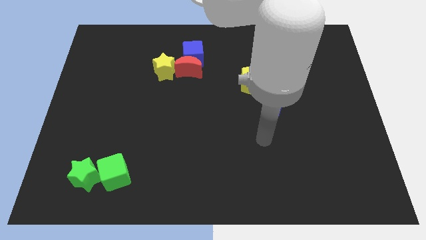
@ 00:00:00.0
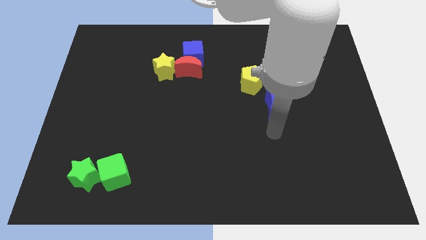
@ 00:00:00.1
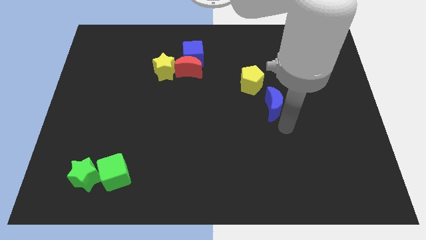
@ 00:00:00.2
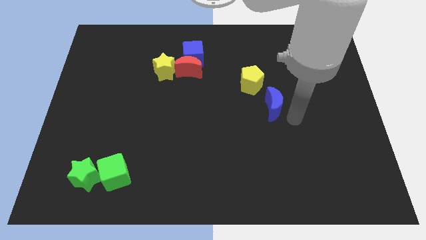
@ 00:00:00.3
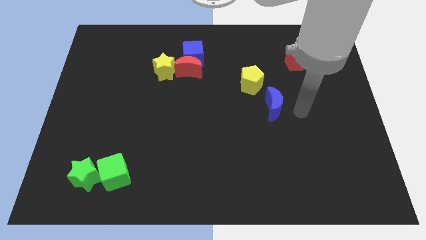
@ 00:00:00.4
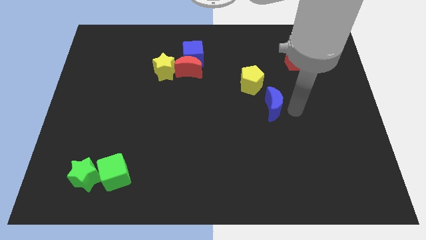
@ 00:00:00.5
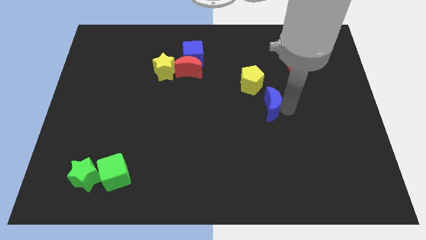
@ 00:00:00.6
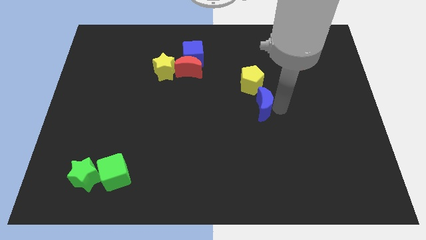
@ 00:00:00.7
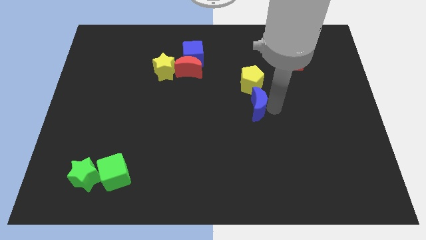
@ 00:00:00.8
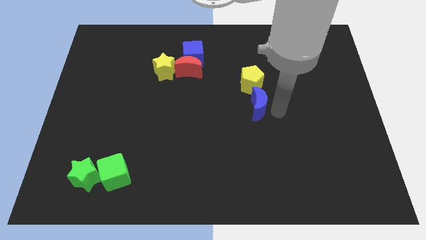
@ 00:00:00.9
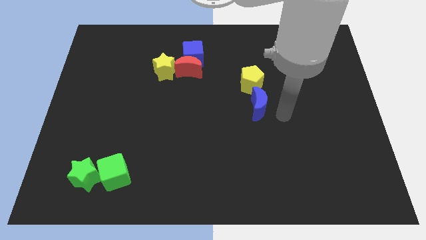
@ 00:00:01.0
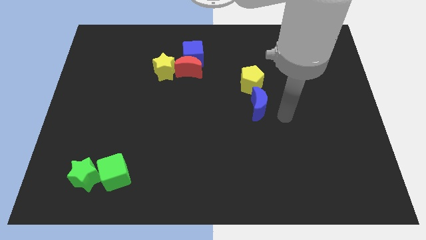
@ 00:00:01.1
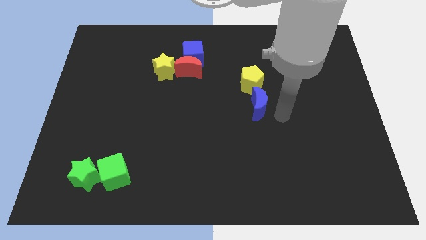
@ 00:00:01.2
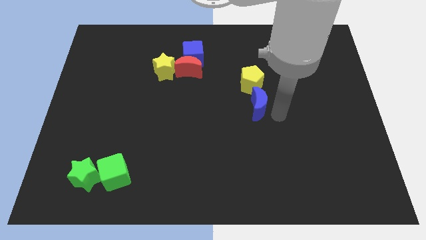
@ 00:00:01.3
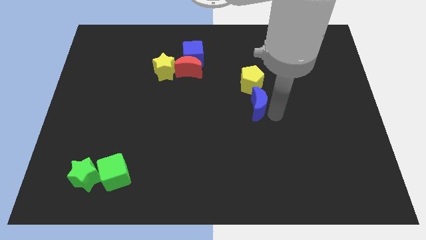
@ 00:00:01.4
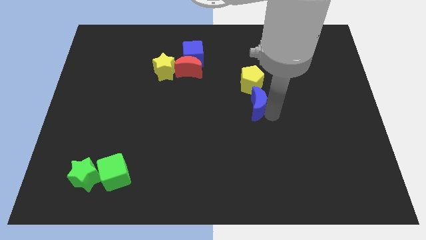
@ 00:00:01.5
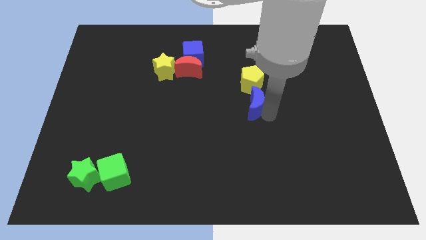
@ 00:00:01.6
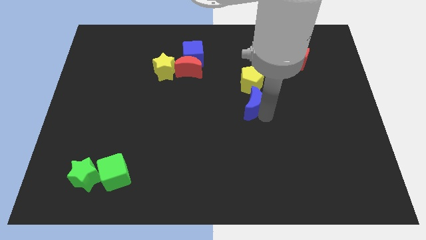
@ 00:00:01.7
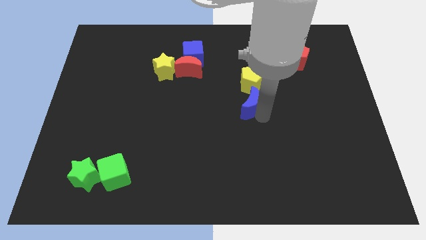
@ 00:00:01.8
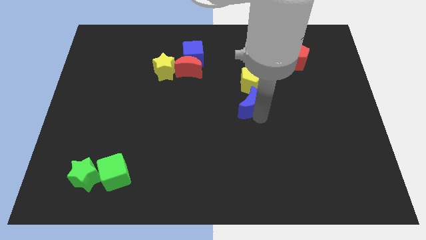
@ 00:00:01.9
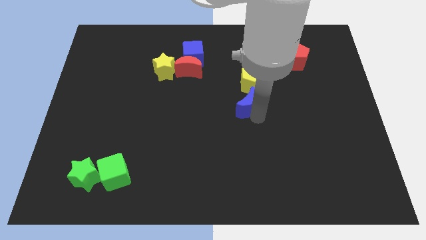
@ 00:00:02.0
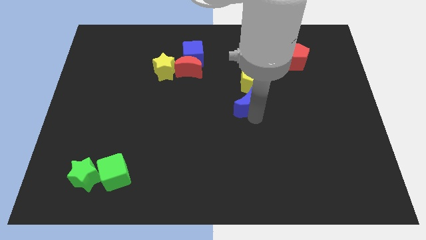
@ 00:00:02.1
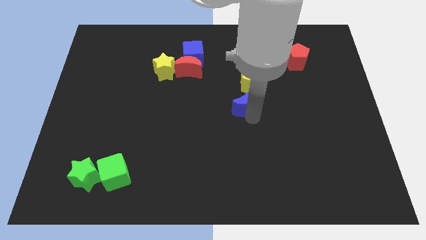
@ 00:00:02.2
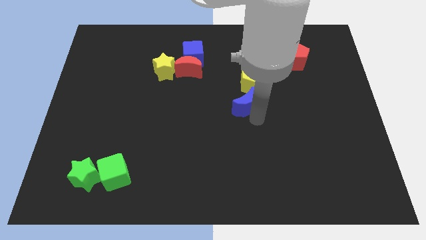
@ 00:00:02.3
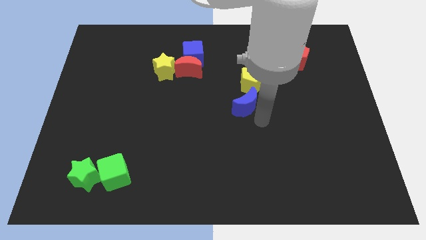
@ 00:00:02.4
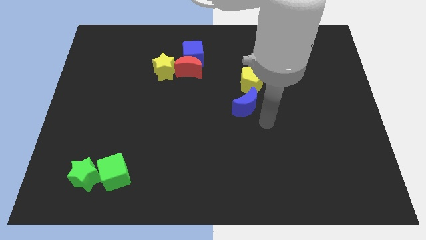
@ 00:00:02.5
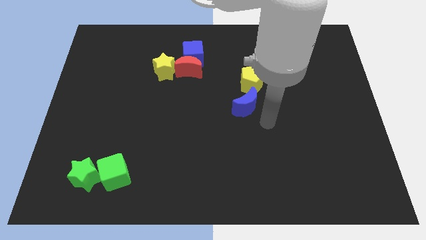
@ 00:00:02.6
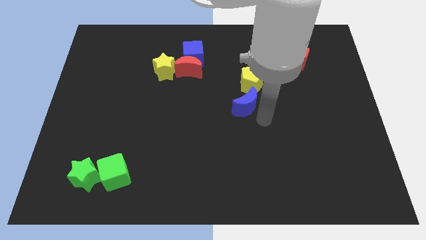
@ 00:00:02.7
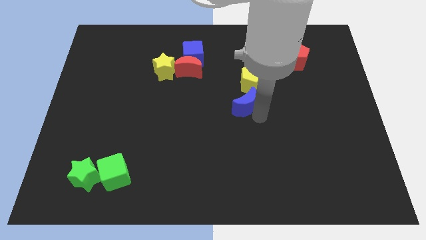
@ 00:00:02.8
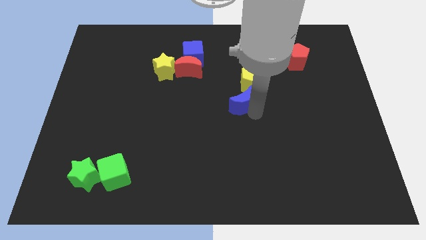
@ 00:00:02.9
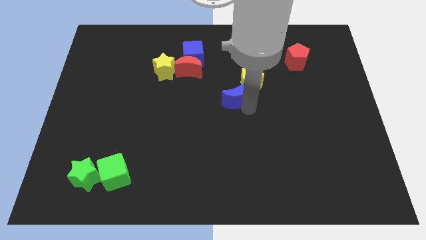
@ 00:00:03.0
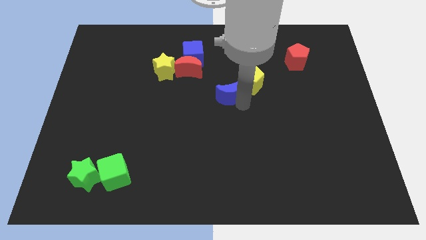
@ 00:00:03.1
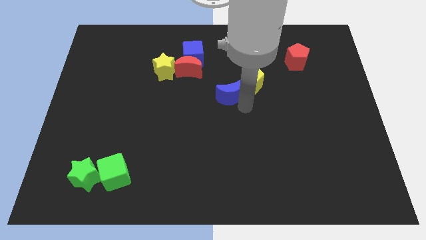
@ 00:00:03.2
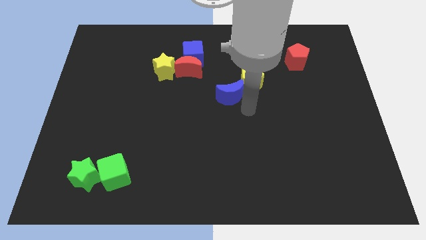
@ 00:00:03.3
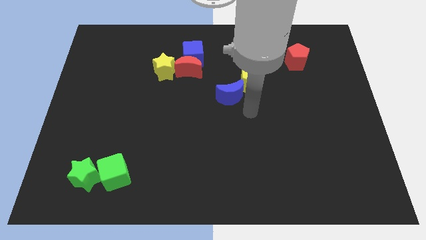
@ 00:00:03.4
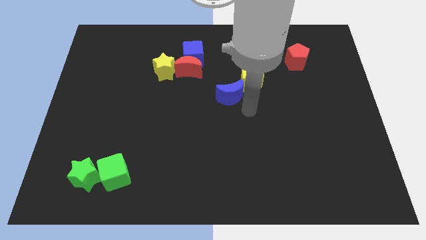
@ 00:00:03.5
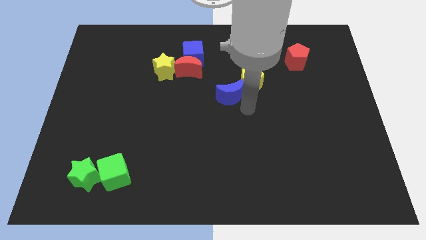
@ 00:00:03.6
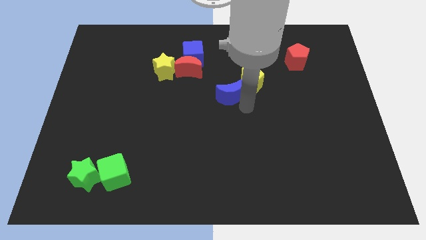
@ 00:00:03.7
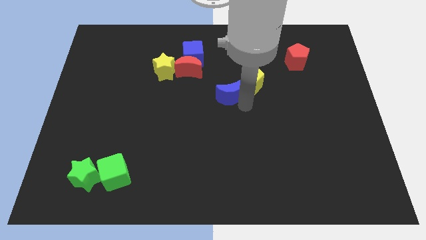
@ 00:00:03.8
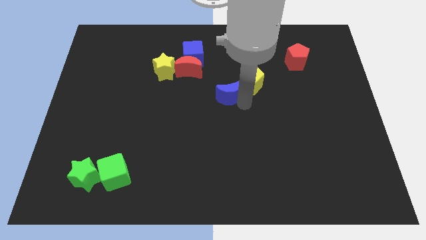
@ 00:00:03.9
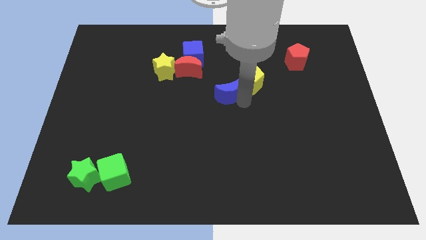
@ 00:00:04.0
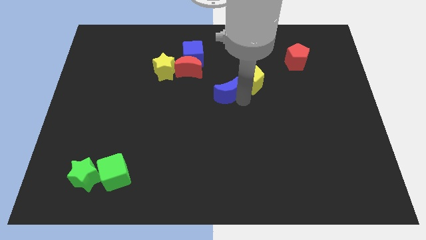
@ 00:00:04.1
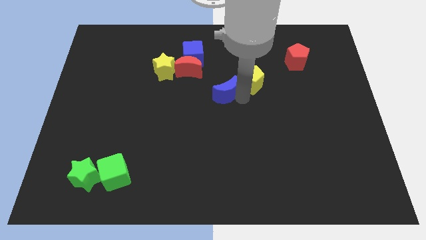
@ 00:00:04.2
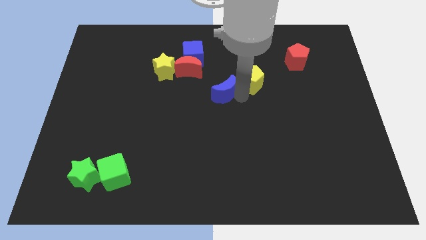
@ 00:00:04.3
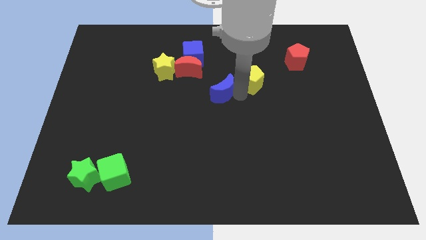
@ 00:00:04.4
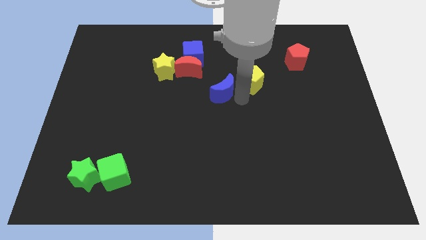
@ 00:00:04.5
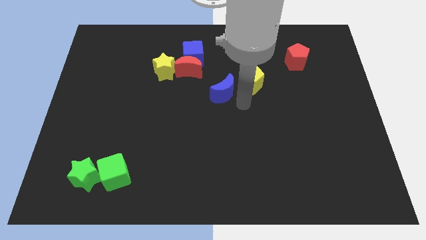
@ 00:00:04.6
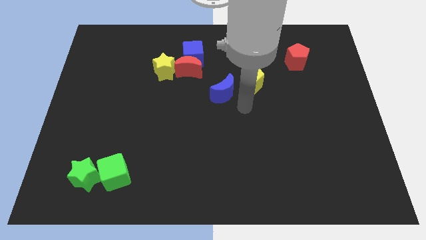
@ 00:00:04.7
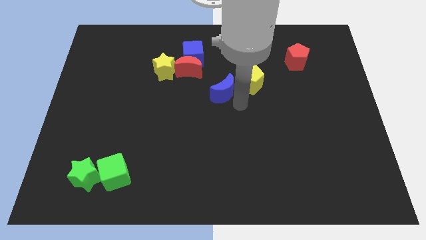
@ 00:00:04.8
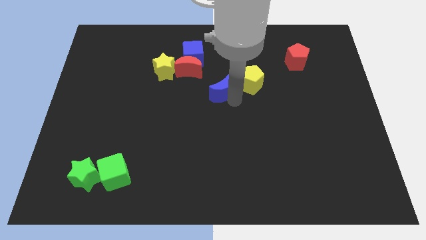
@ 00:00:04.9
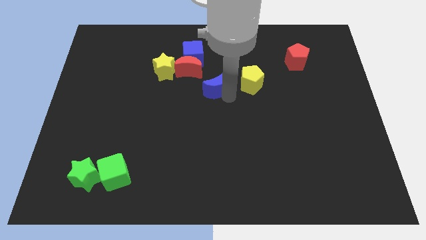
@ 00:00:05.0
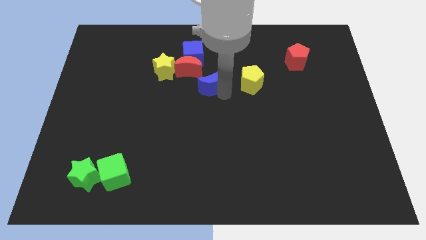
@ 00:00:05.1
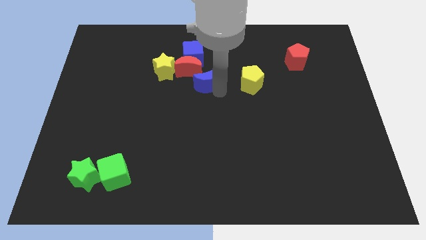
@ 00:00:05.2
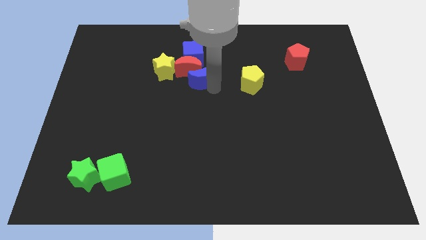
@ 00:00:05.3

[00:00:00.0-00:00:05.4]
put the blue moon close to the red moon

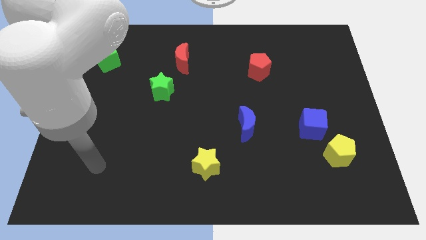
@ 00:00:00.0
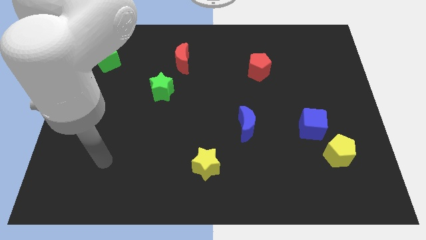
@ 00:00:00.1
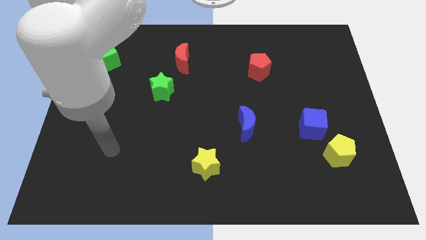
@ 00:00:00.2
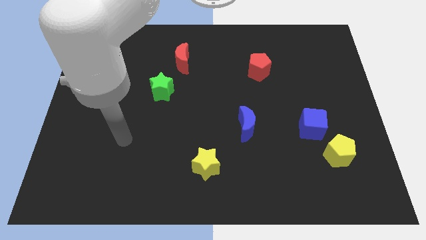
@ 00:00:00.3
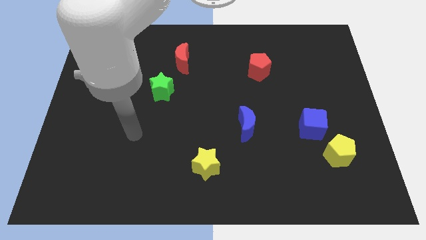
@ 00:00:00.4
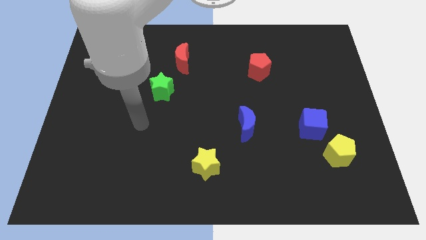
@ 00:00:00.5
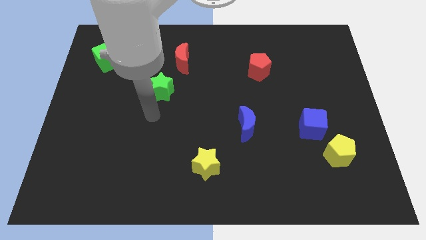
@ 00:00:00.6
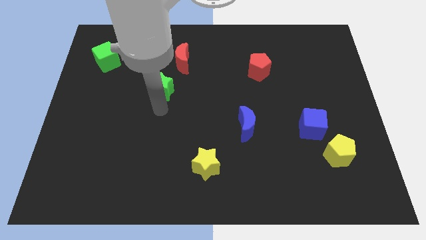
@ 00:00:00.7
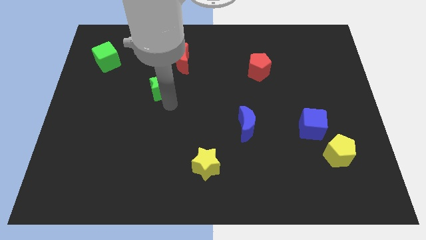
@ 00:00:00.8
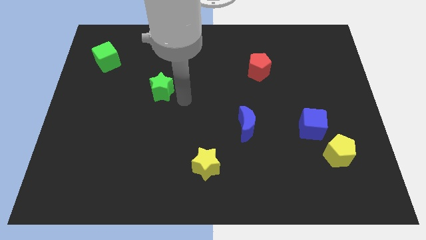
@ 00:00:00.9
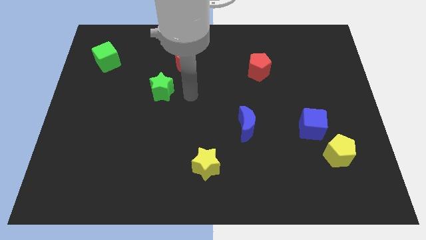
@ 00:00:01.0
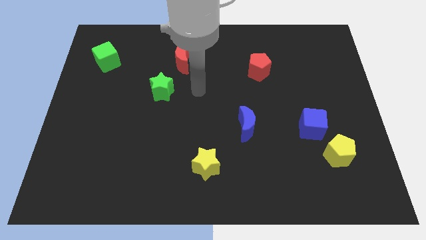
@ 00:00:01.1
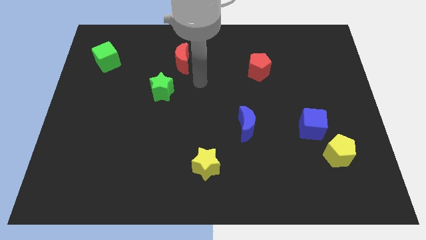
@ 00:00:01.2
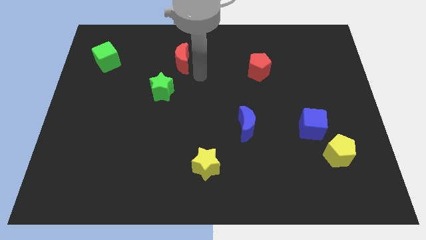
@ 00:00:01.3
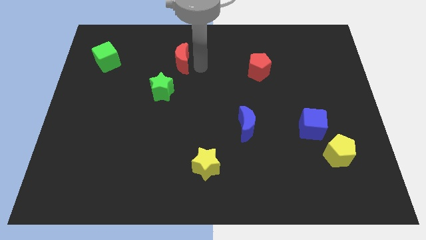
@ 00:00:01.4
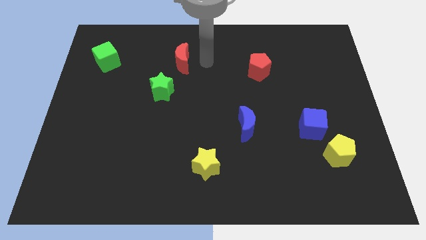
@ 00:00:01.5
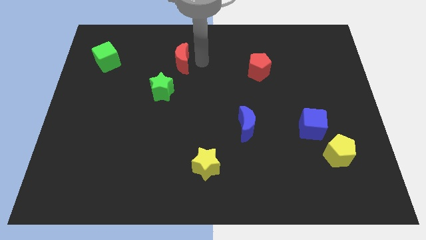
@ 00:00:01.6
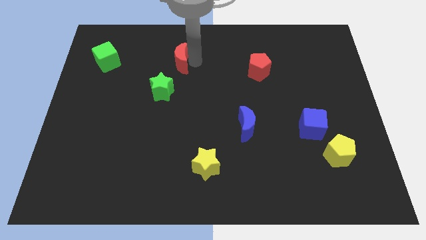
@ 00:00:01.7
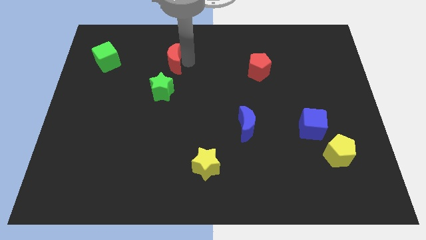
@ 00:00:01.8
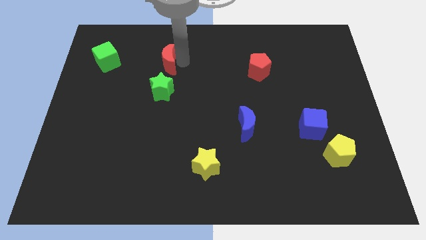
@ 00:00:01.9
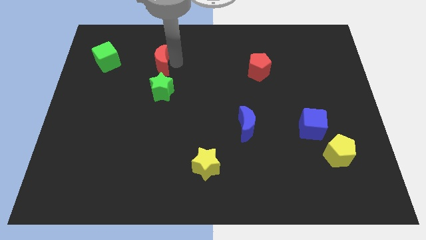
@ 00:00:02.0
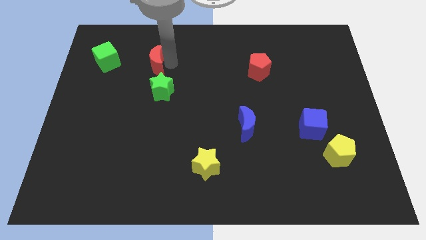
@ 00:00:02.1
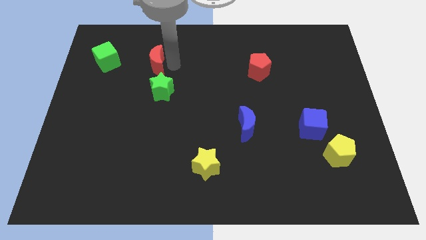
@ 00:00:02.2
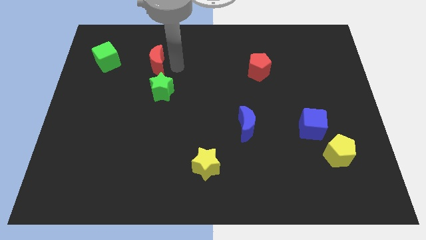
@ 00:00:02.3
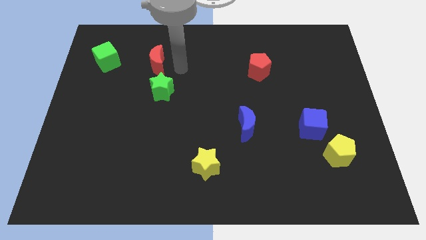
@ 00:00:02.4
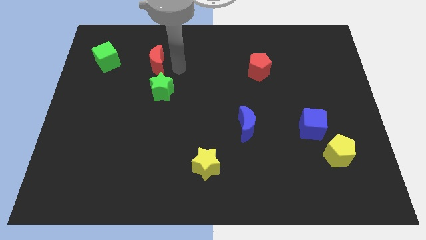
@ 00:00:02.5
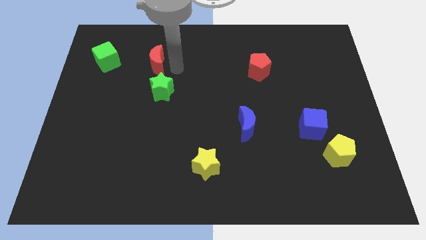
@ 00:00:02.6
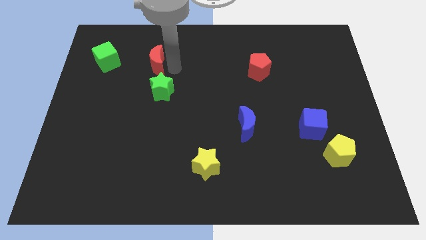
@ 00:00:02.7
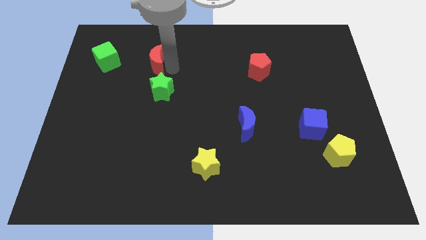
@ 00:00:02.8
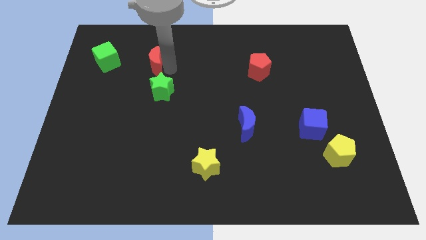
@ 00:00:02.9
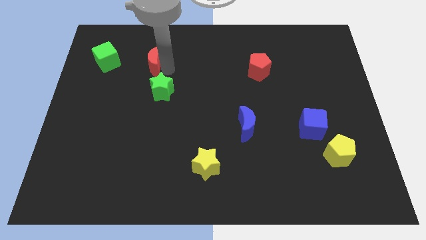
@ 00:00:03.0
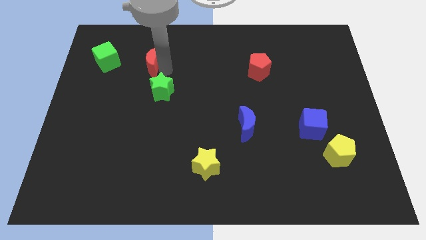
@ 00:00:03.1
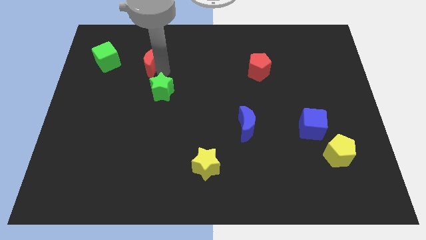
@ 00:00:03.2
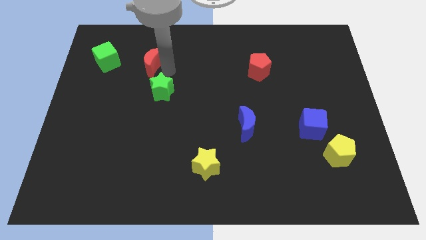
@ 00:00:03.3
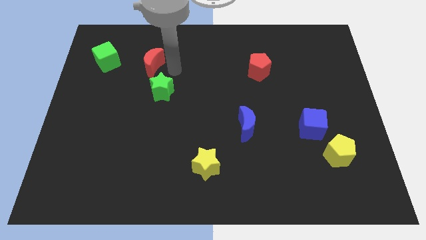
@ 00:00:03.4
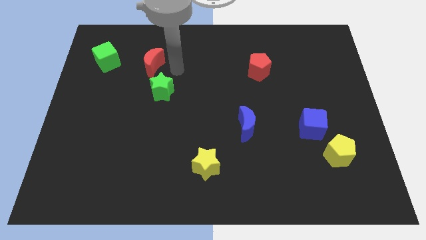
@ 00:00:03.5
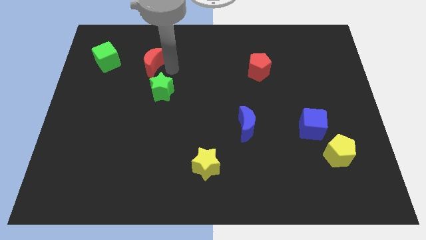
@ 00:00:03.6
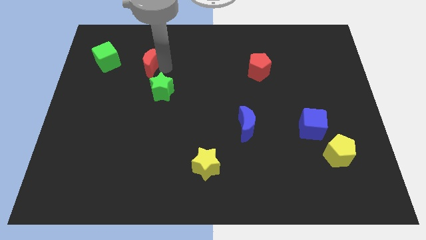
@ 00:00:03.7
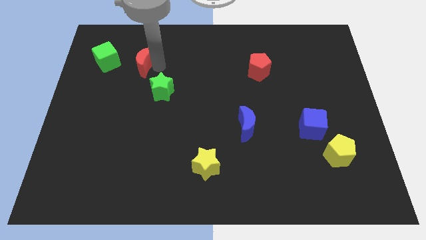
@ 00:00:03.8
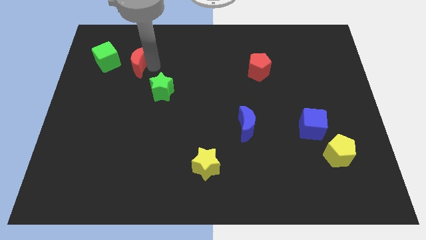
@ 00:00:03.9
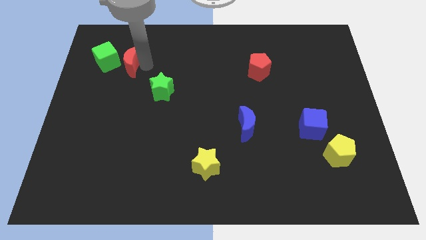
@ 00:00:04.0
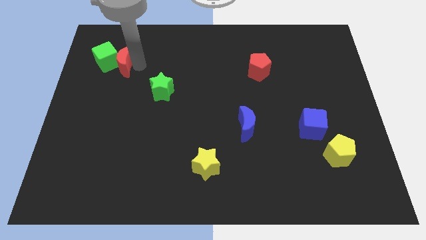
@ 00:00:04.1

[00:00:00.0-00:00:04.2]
move the red moon next to the green cube
